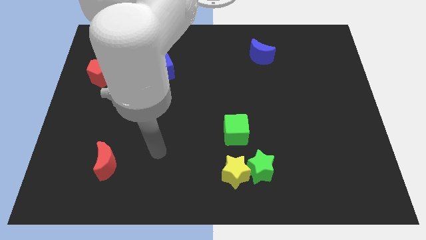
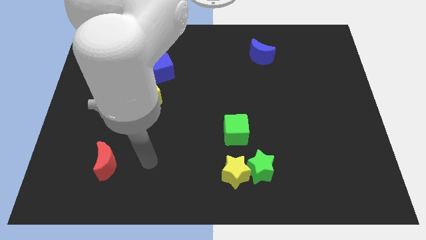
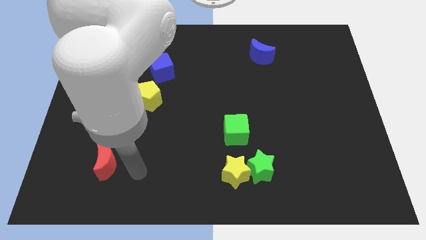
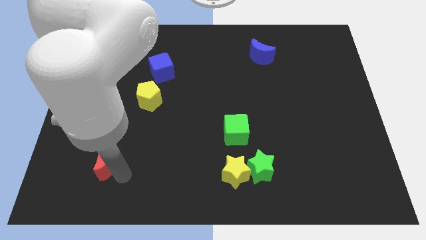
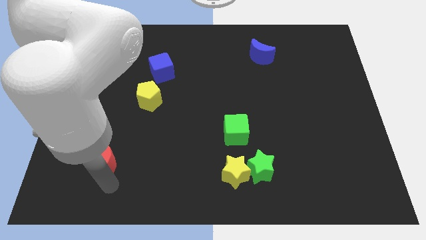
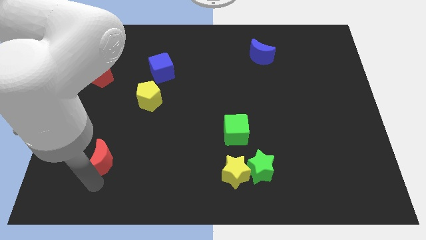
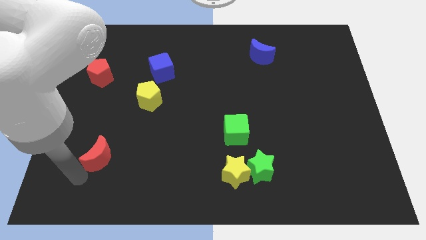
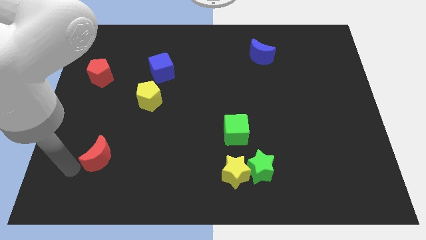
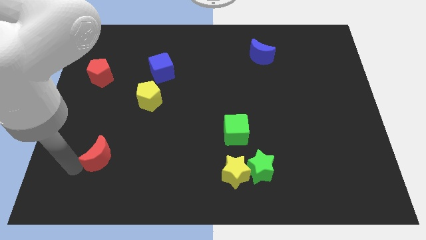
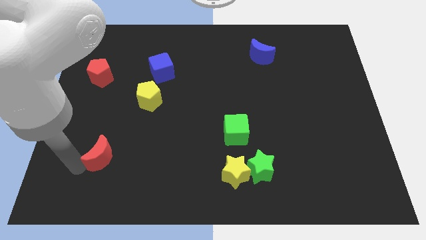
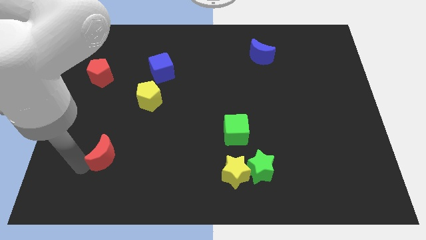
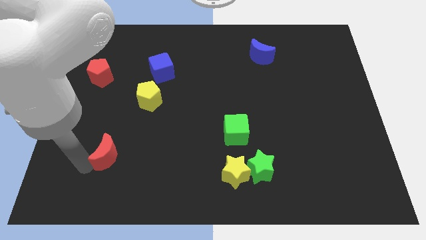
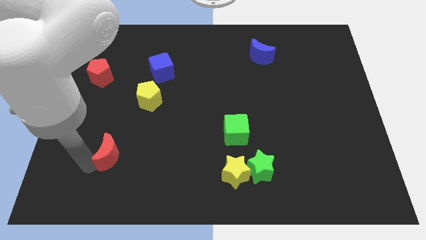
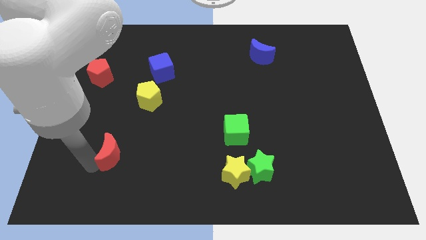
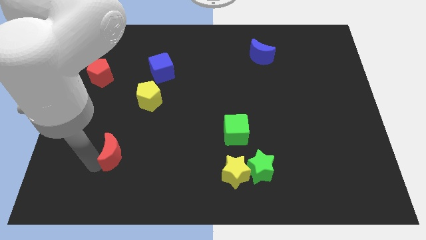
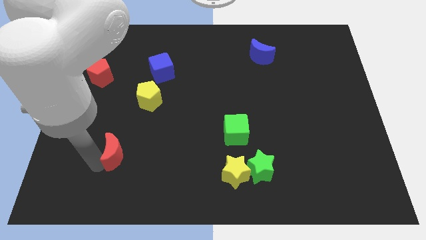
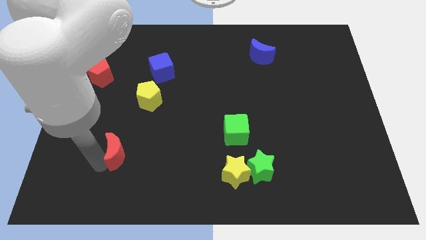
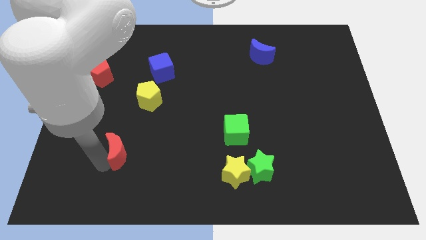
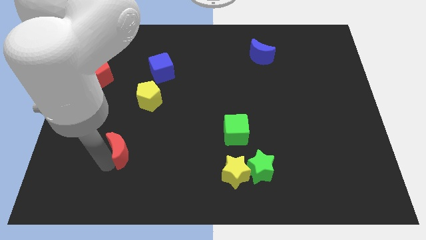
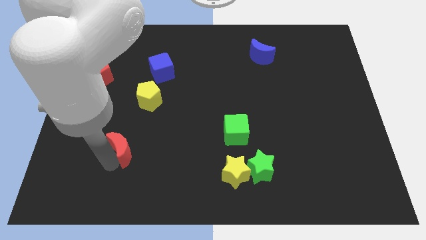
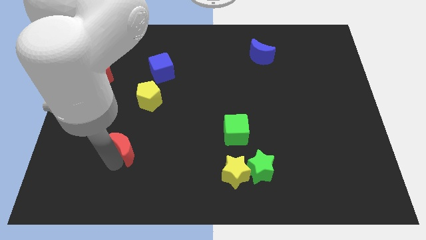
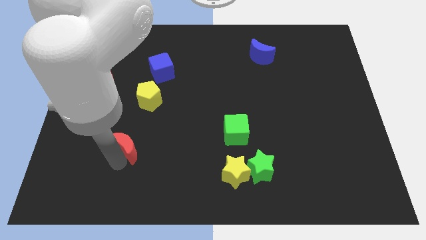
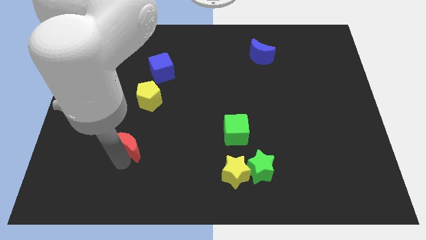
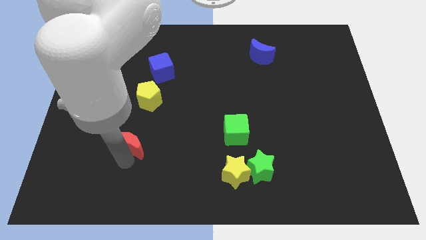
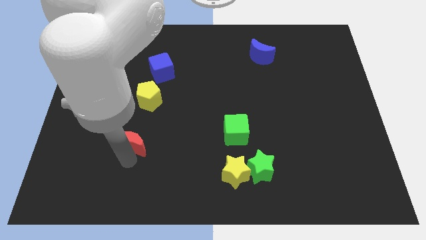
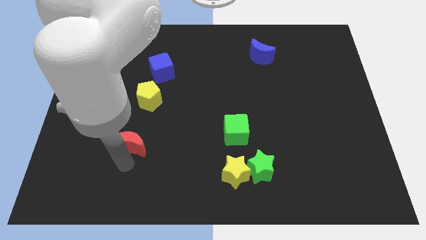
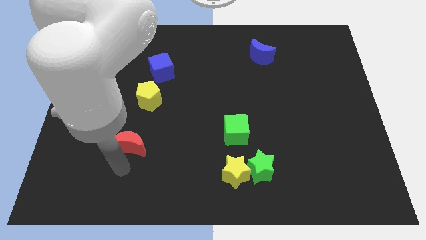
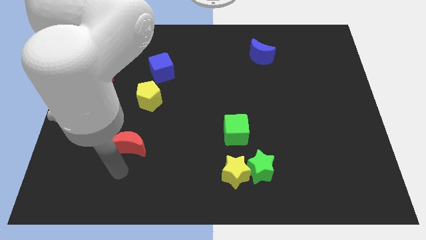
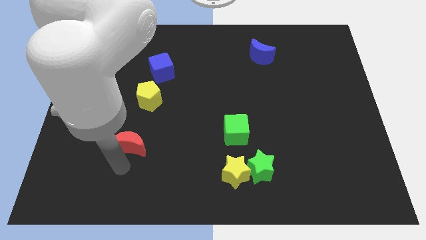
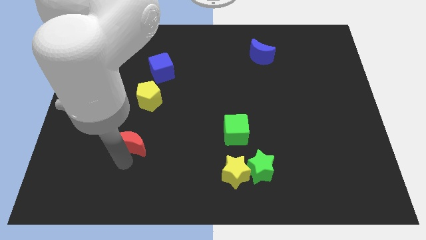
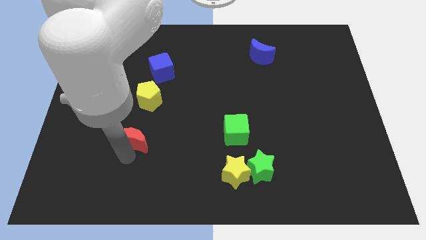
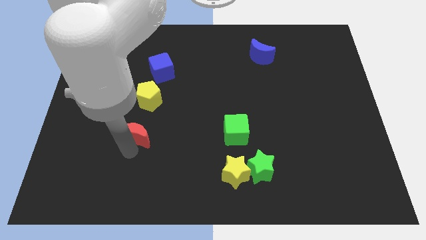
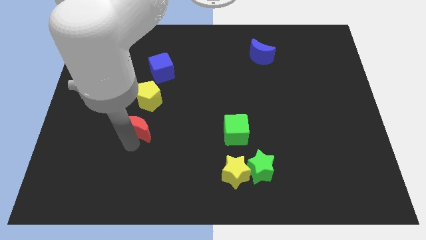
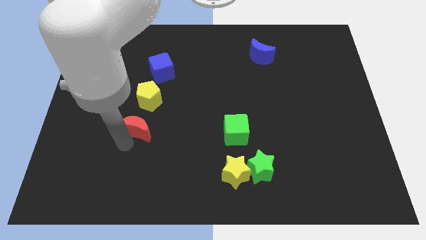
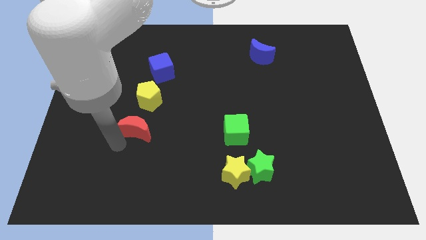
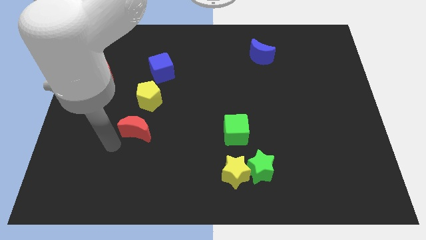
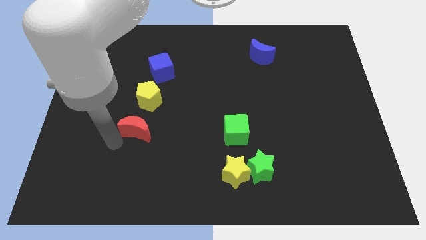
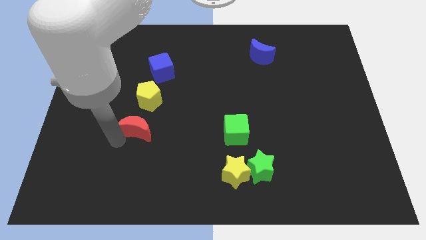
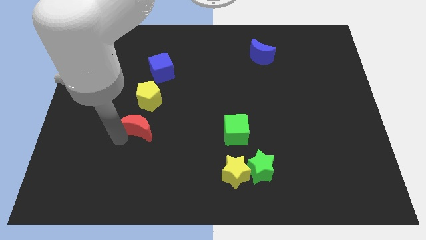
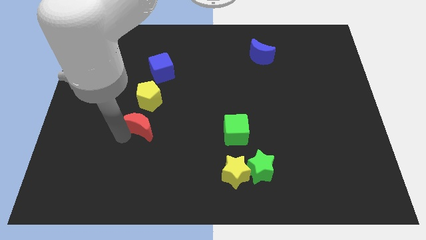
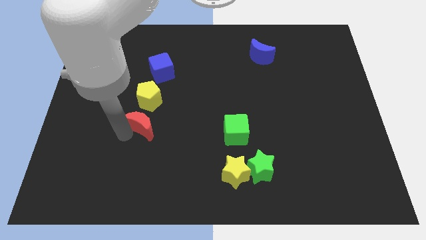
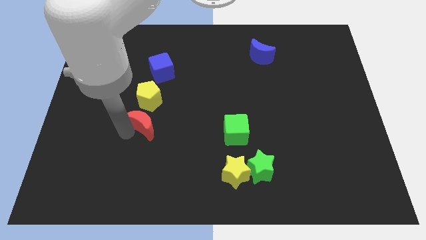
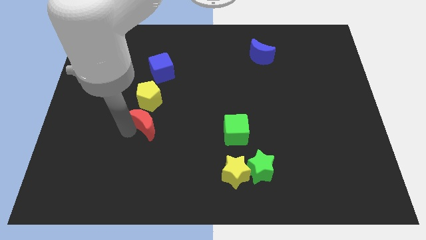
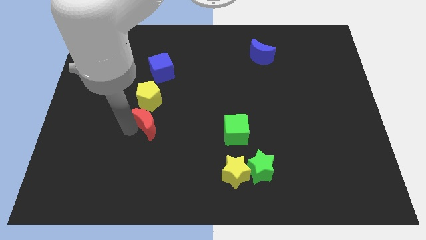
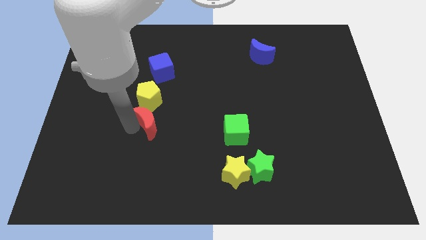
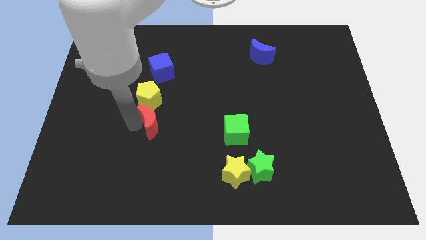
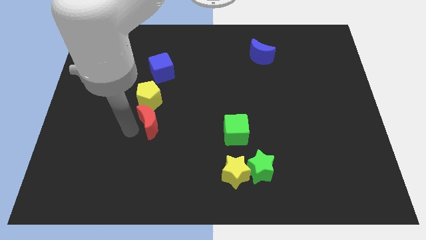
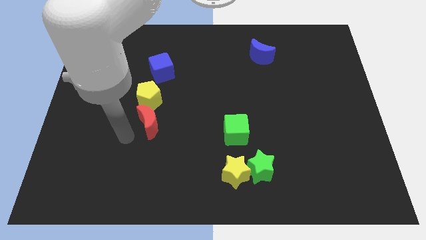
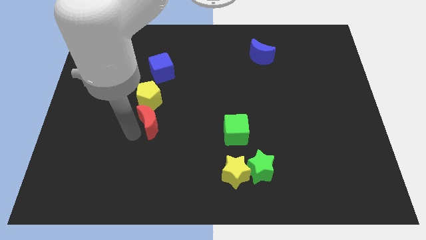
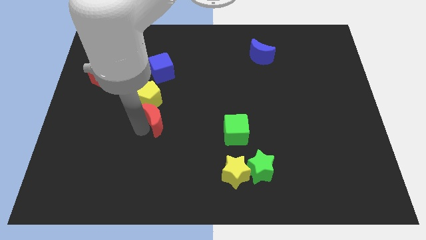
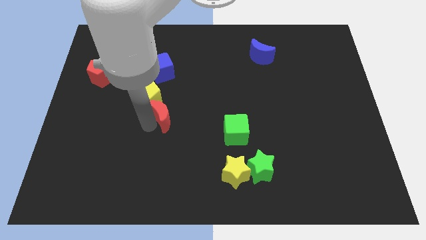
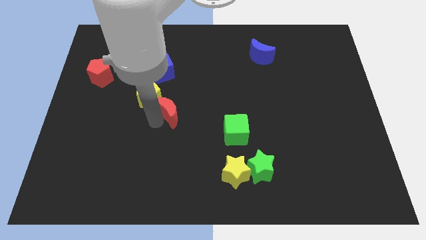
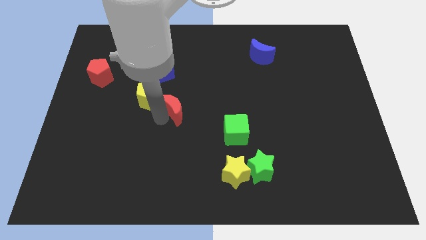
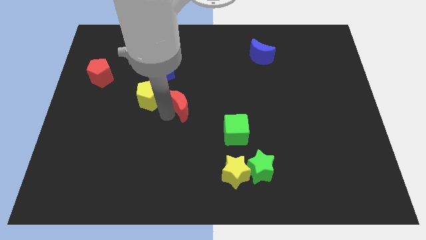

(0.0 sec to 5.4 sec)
move the red moon up and right

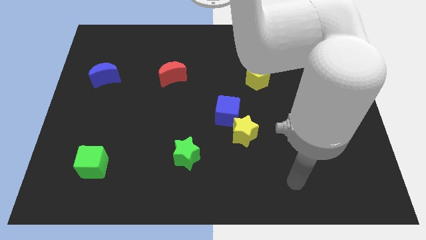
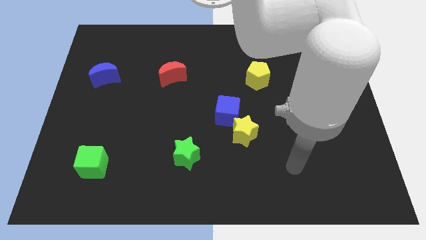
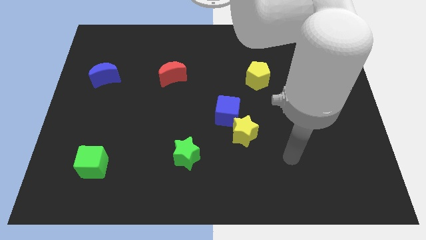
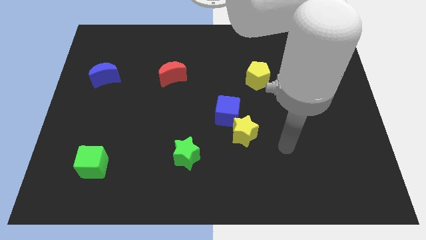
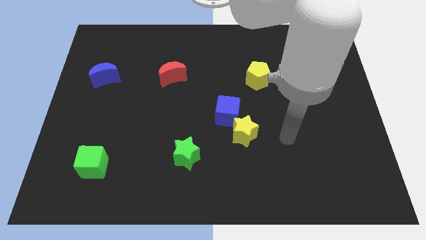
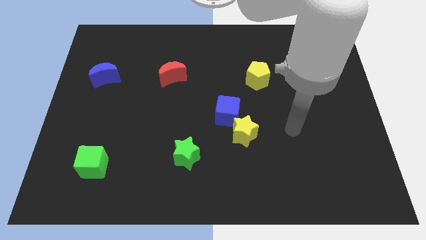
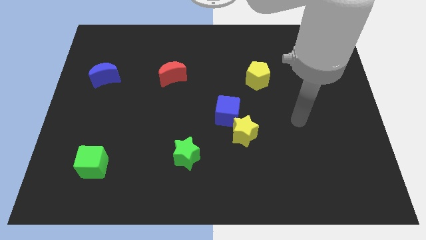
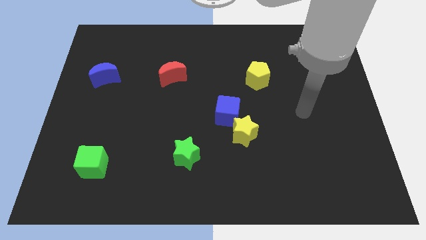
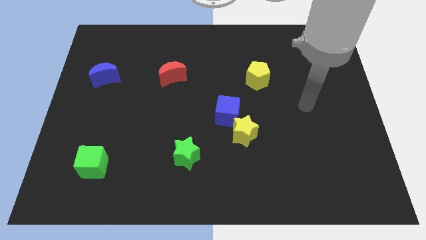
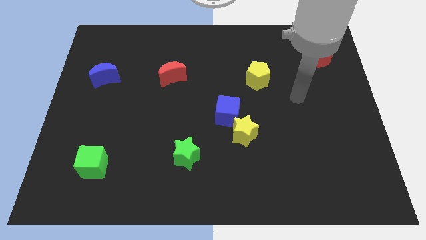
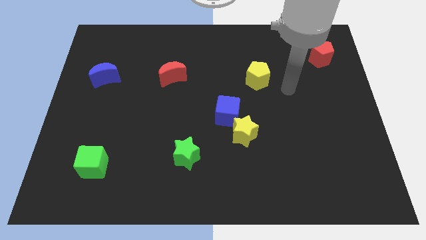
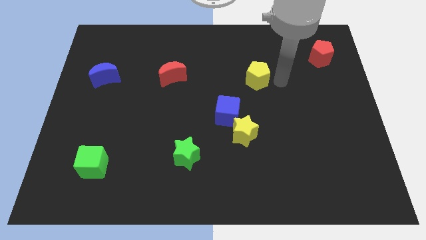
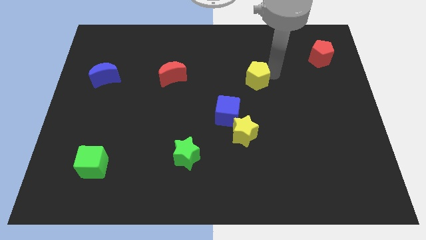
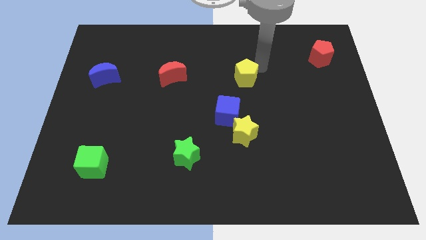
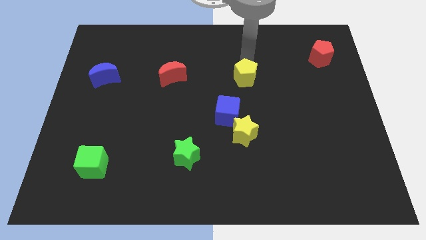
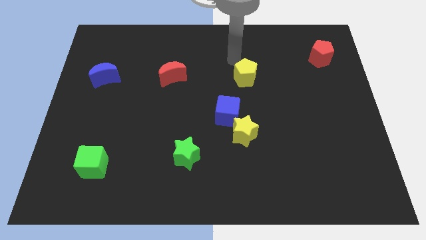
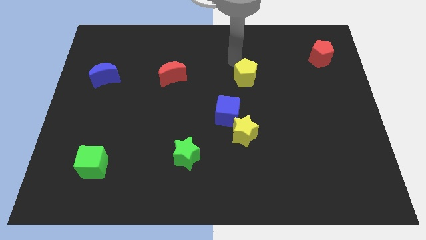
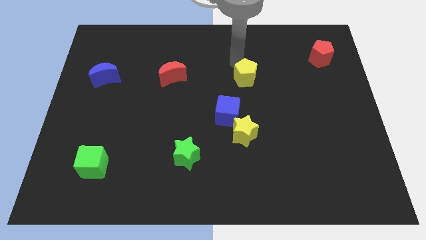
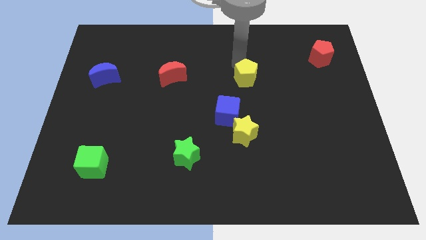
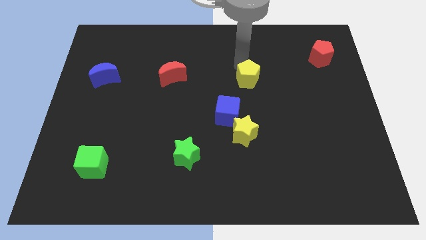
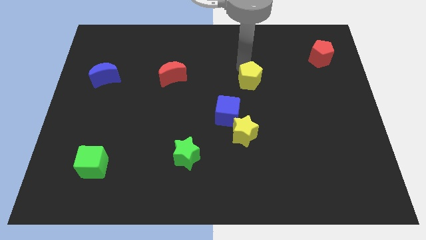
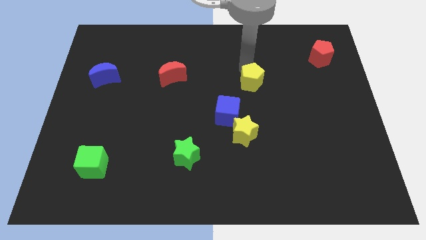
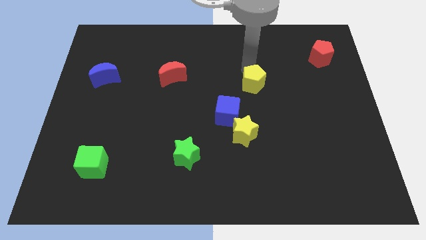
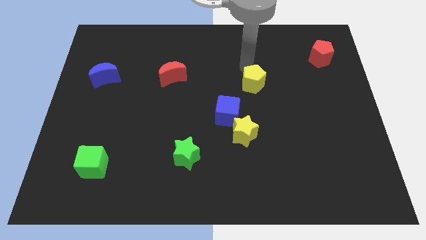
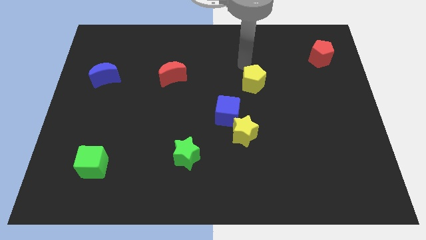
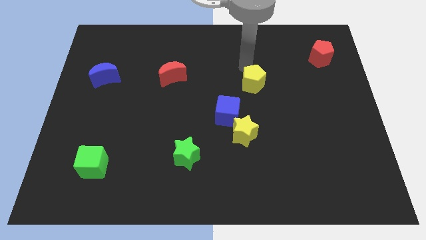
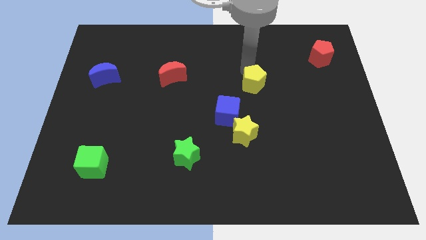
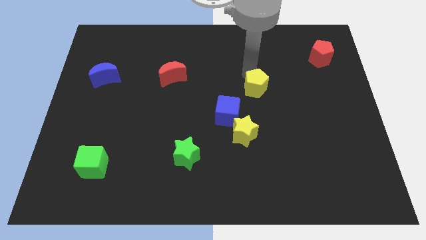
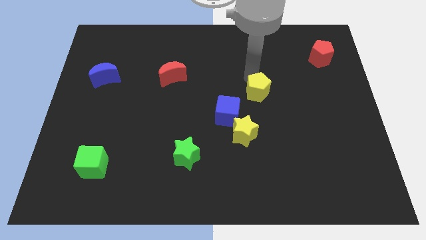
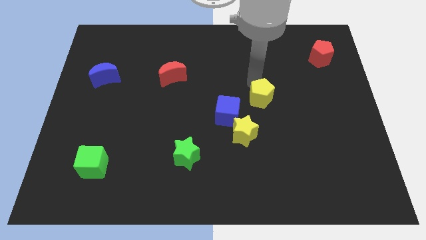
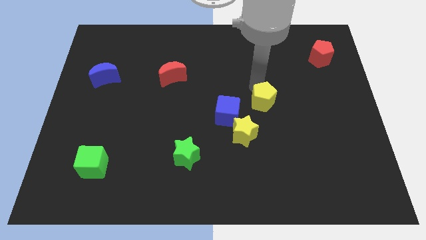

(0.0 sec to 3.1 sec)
move the yellow pentagon slightly down
